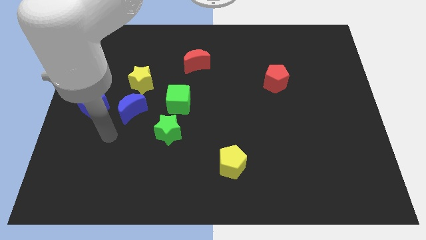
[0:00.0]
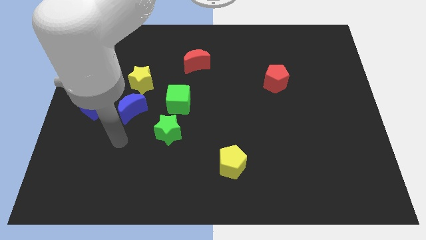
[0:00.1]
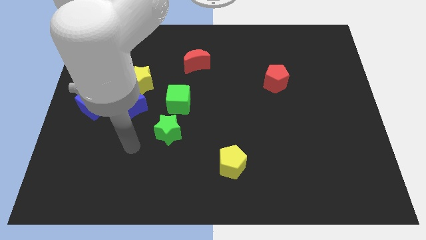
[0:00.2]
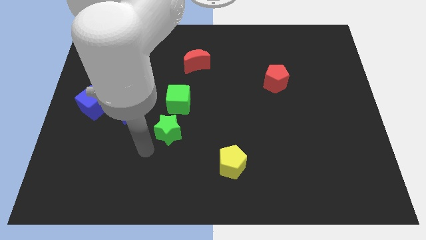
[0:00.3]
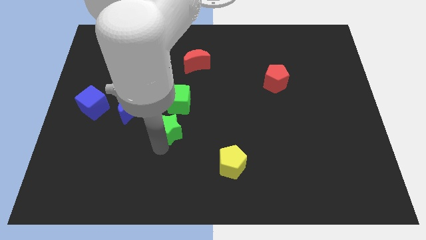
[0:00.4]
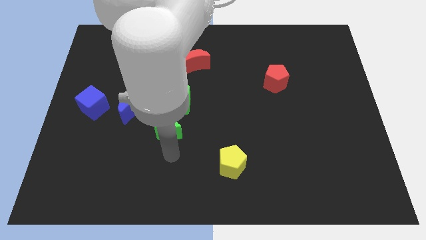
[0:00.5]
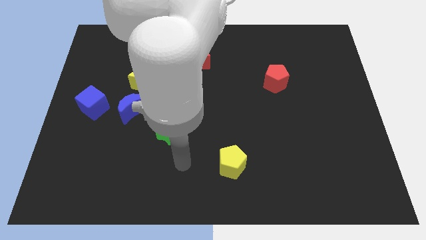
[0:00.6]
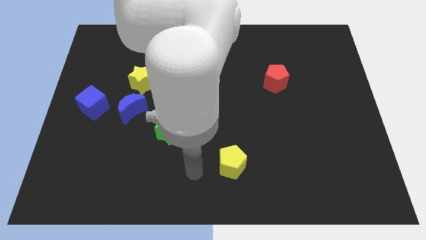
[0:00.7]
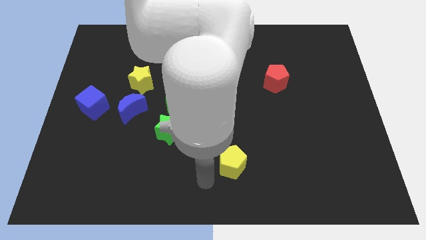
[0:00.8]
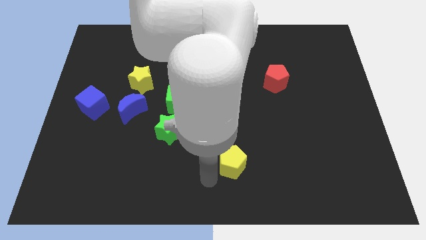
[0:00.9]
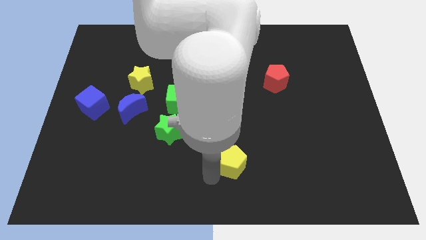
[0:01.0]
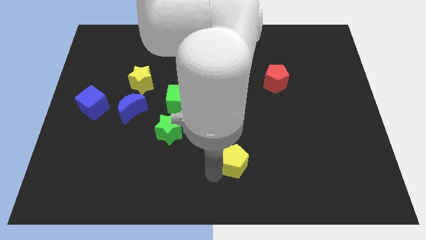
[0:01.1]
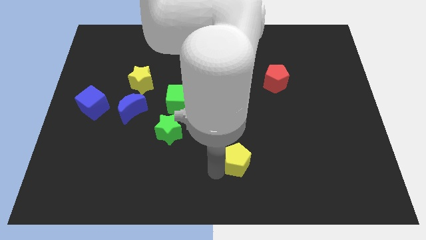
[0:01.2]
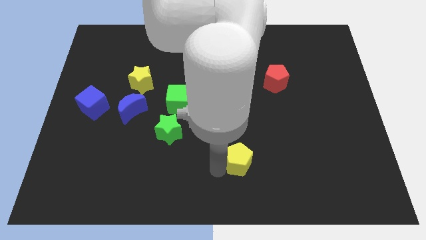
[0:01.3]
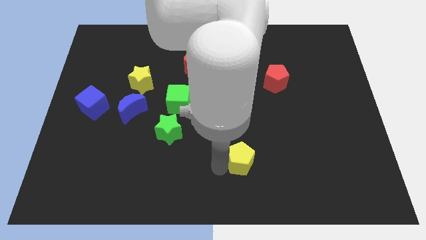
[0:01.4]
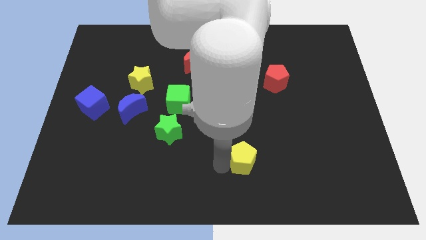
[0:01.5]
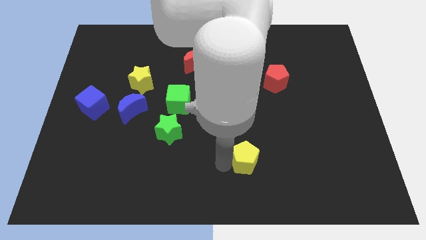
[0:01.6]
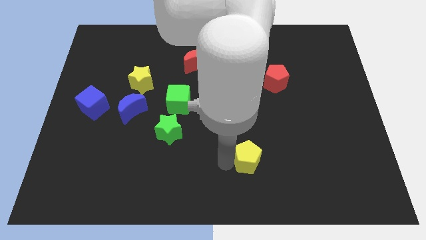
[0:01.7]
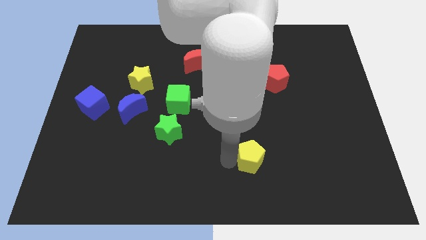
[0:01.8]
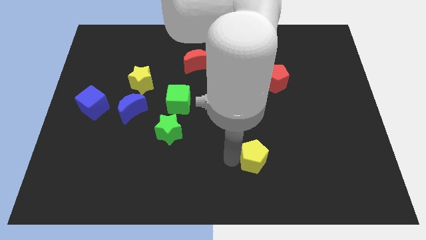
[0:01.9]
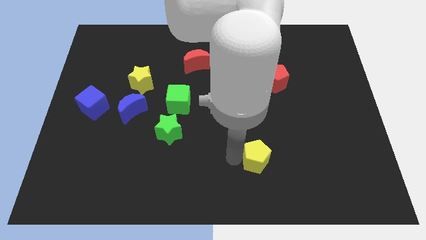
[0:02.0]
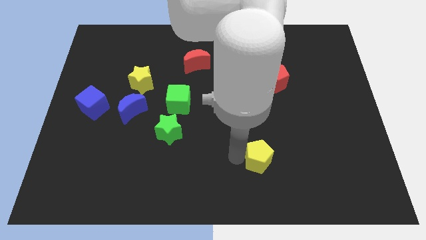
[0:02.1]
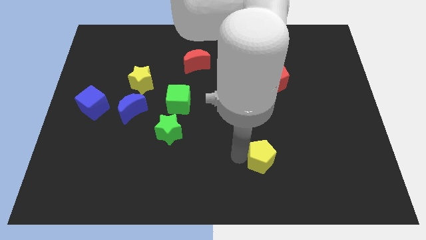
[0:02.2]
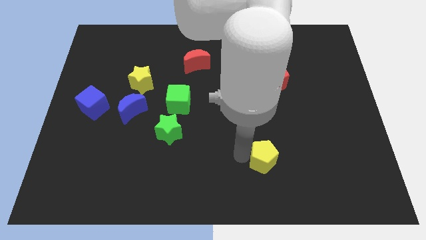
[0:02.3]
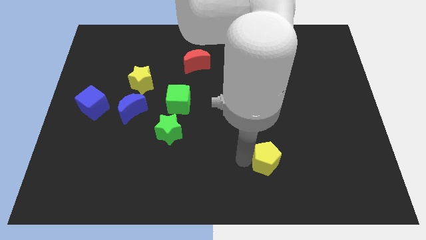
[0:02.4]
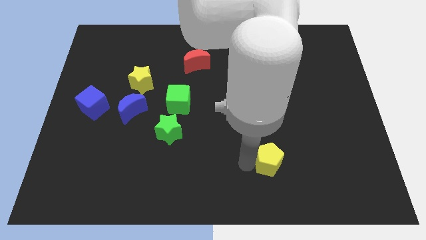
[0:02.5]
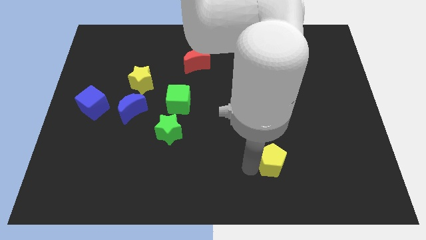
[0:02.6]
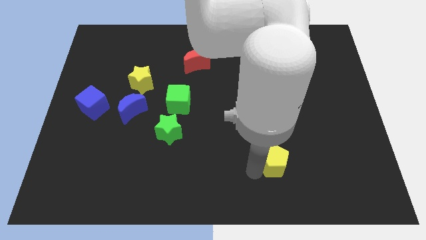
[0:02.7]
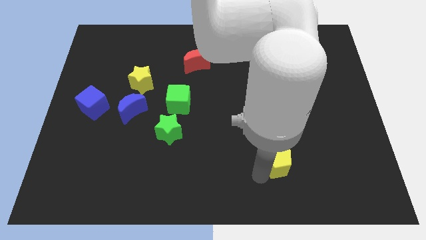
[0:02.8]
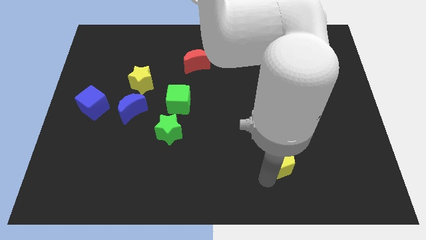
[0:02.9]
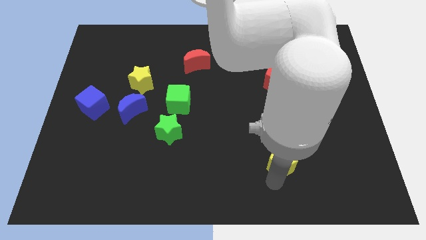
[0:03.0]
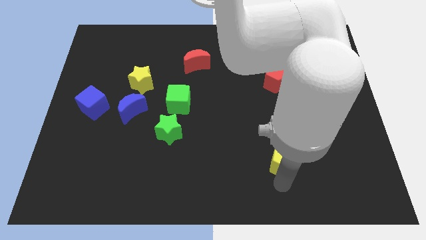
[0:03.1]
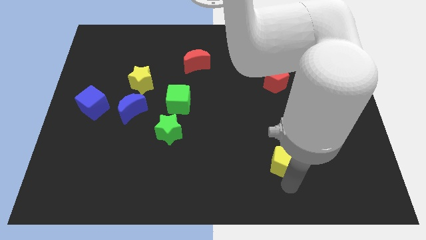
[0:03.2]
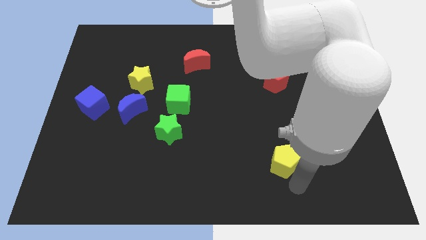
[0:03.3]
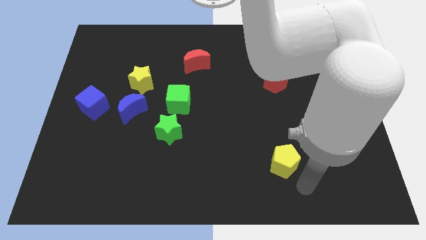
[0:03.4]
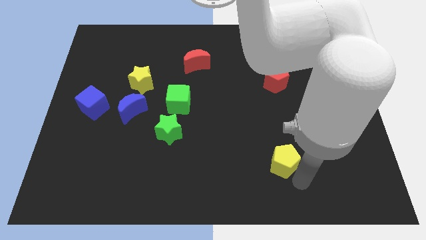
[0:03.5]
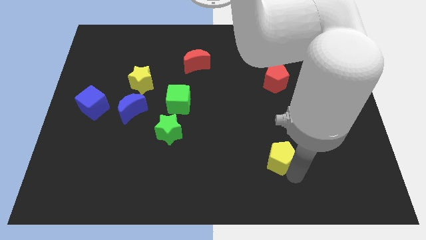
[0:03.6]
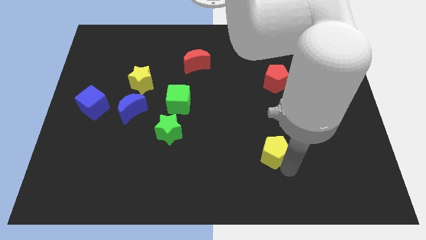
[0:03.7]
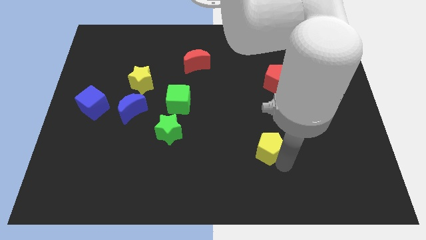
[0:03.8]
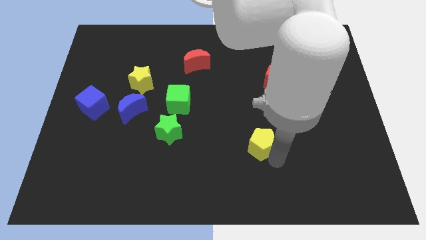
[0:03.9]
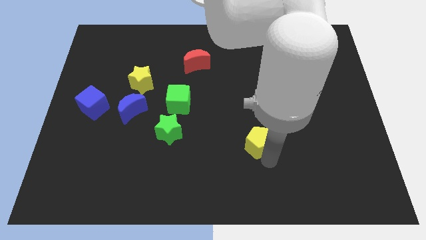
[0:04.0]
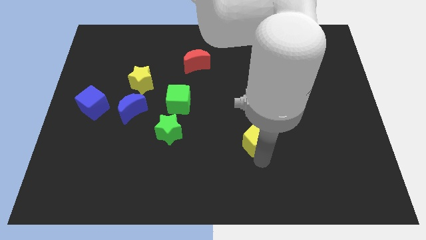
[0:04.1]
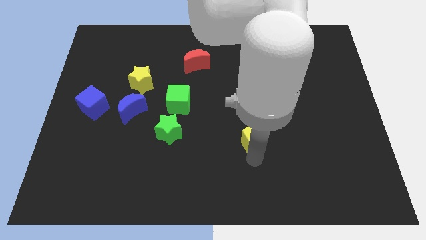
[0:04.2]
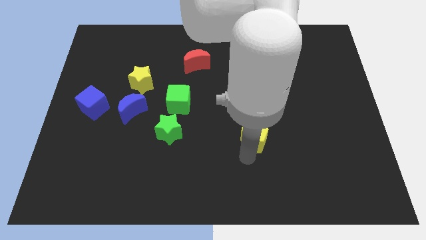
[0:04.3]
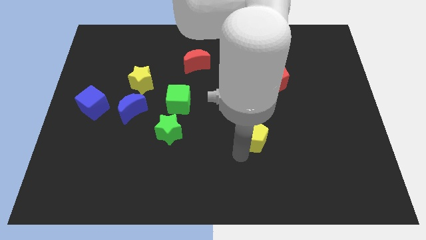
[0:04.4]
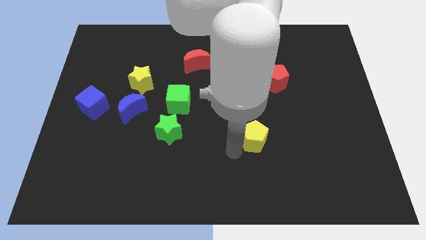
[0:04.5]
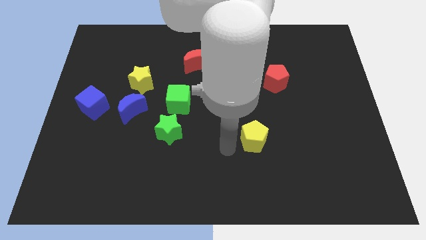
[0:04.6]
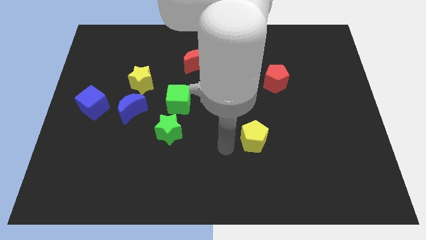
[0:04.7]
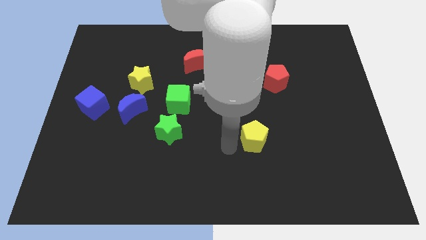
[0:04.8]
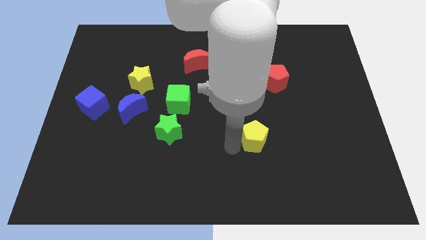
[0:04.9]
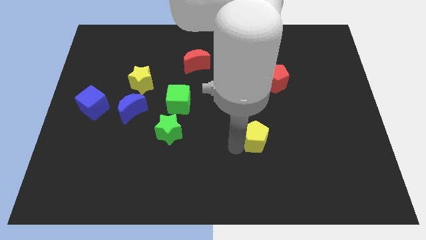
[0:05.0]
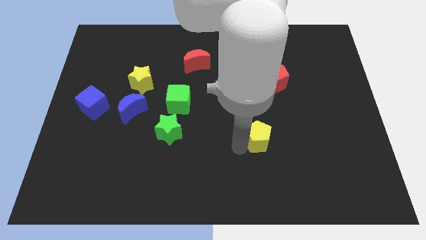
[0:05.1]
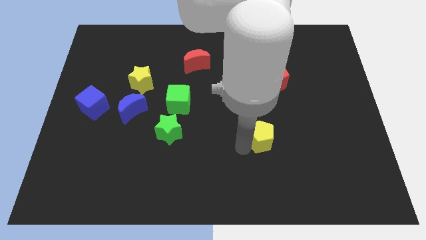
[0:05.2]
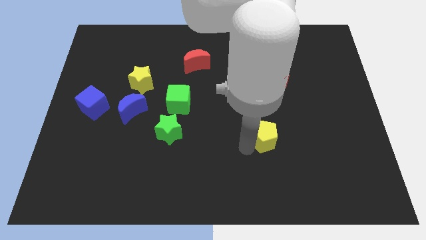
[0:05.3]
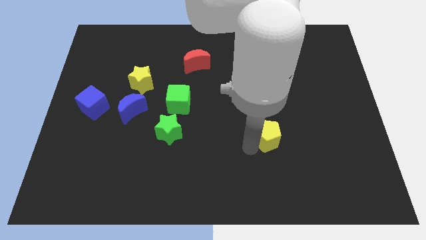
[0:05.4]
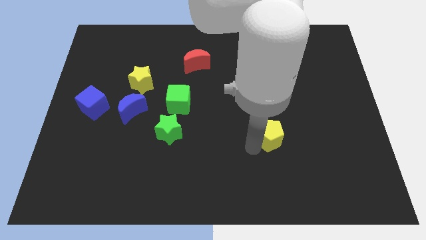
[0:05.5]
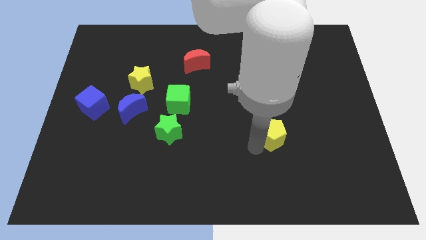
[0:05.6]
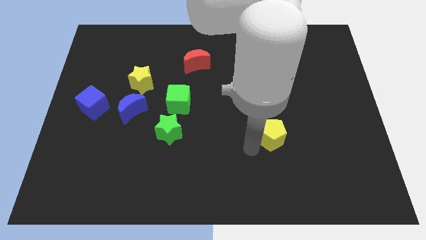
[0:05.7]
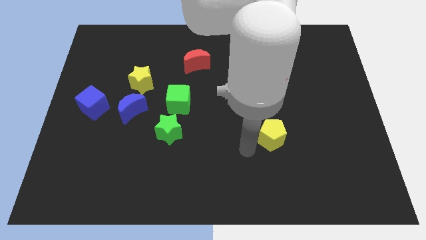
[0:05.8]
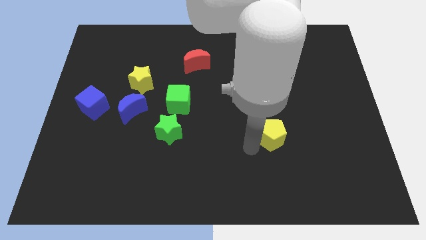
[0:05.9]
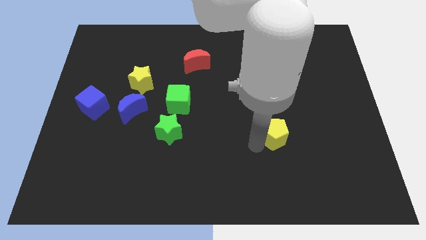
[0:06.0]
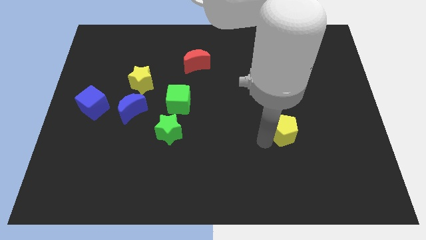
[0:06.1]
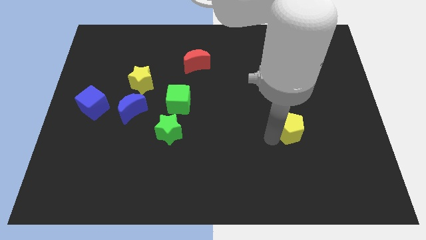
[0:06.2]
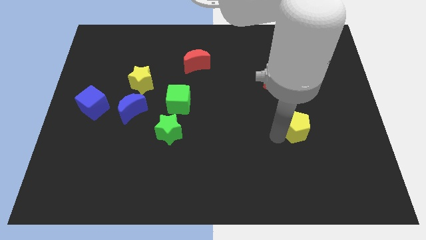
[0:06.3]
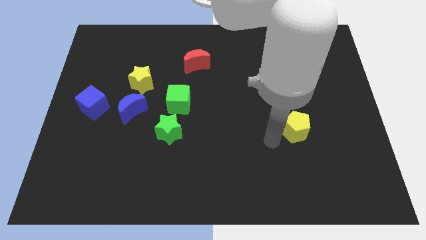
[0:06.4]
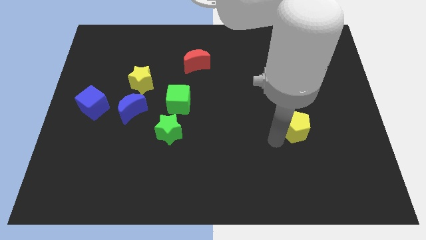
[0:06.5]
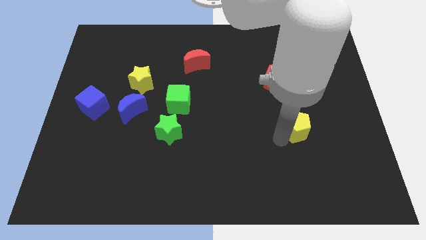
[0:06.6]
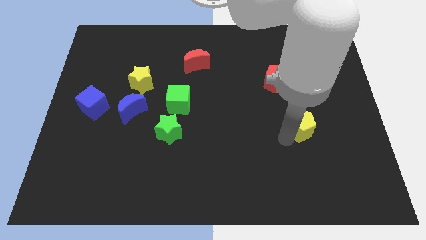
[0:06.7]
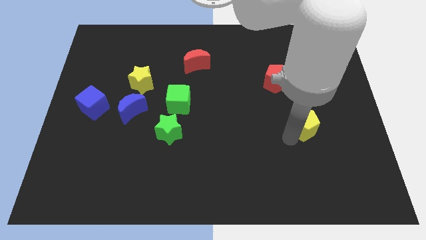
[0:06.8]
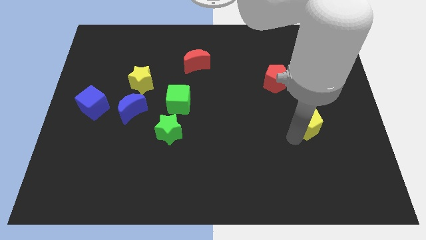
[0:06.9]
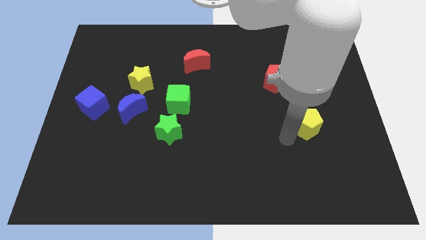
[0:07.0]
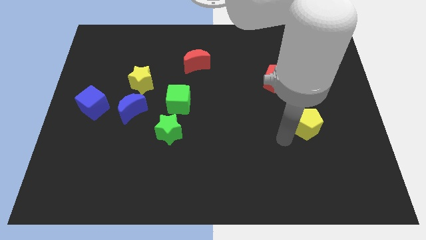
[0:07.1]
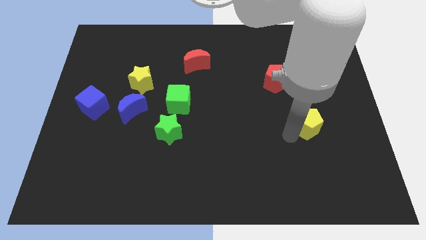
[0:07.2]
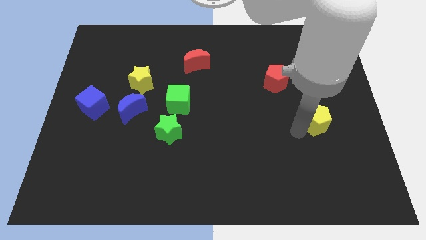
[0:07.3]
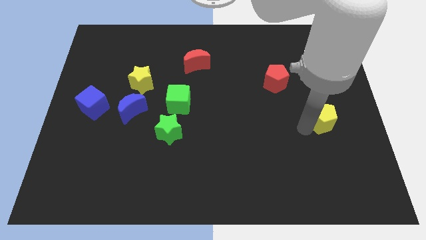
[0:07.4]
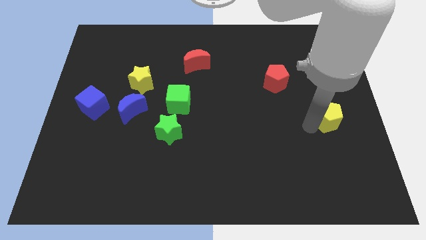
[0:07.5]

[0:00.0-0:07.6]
slide the yellow pentagon to the right side of the board
